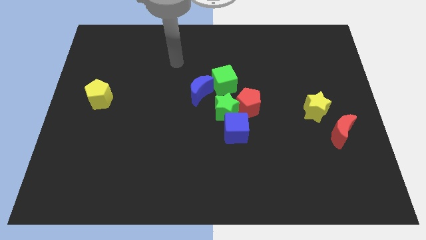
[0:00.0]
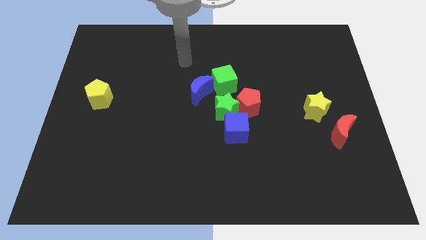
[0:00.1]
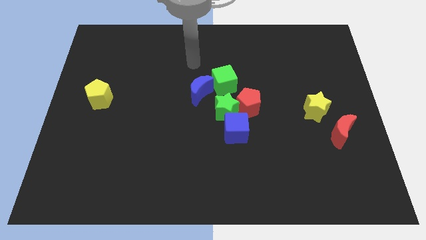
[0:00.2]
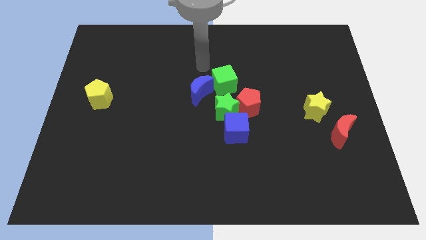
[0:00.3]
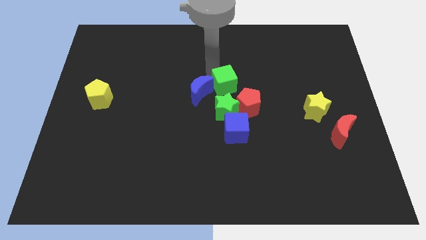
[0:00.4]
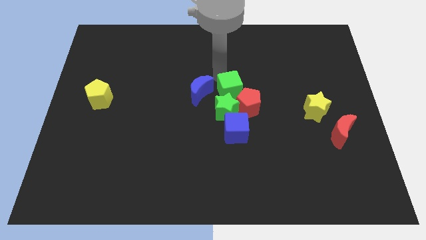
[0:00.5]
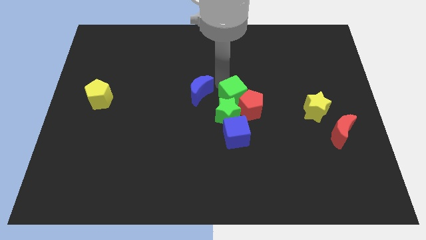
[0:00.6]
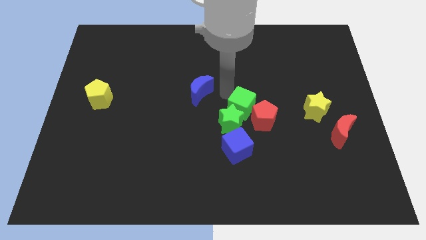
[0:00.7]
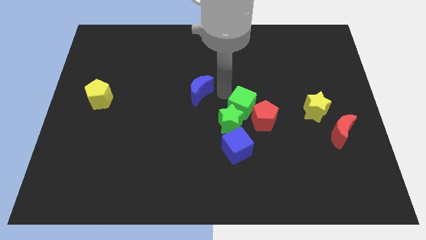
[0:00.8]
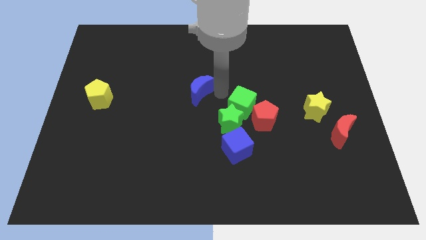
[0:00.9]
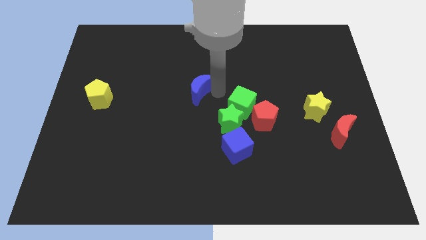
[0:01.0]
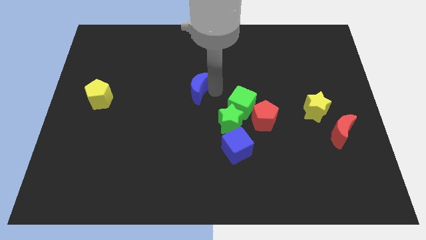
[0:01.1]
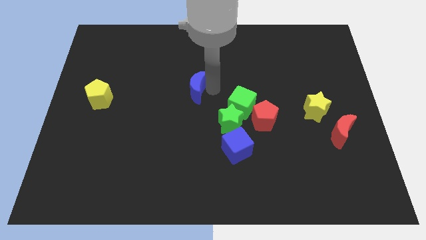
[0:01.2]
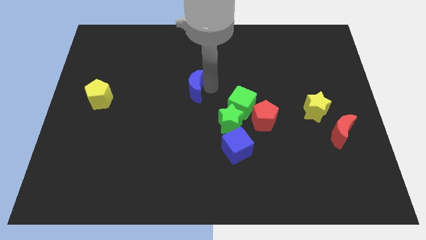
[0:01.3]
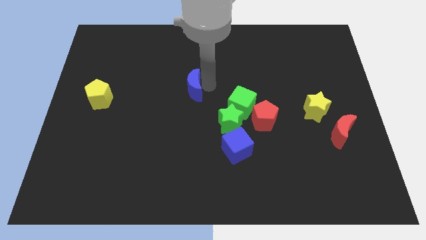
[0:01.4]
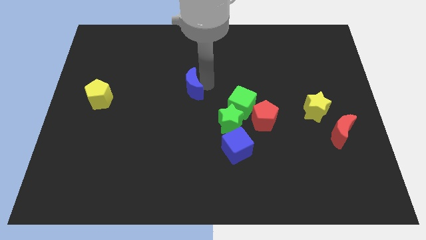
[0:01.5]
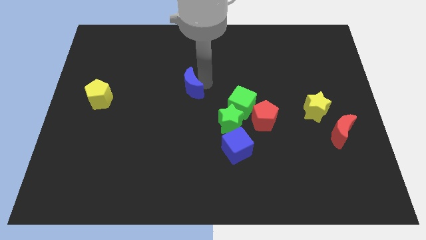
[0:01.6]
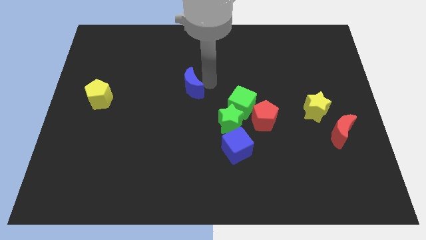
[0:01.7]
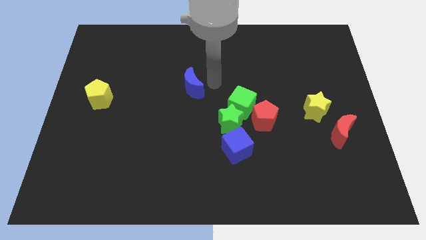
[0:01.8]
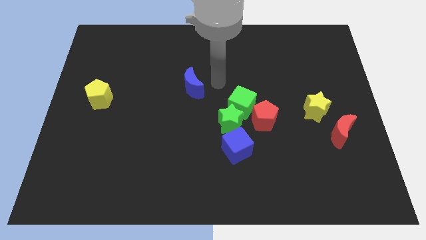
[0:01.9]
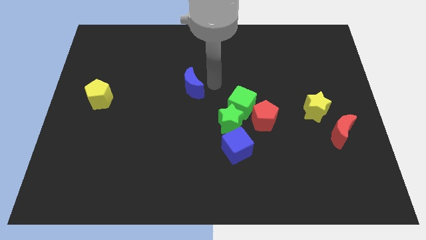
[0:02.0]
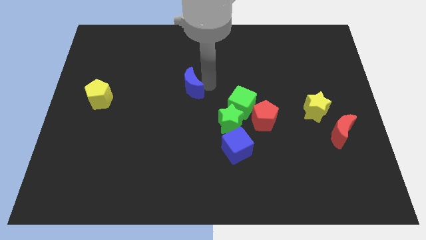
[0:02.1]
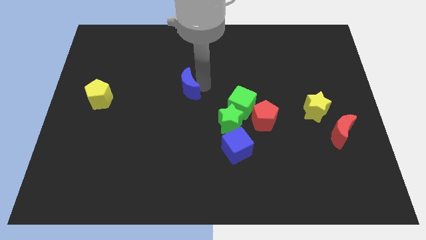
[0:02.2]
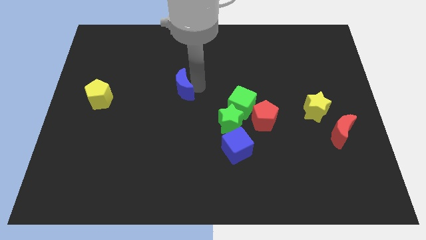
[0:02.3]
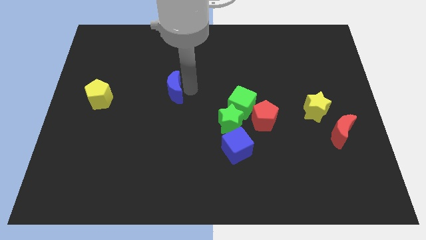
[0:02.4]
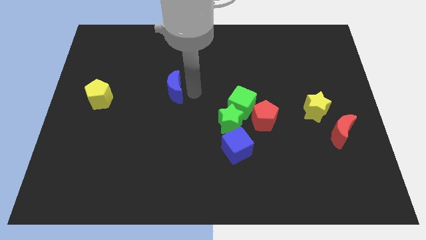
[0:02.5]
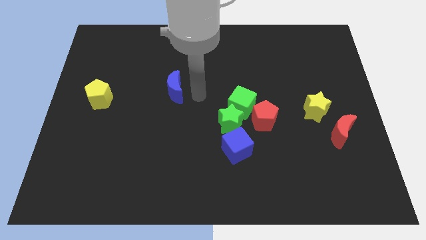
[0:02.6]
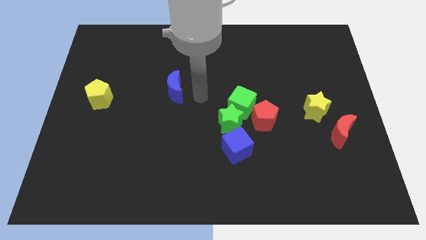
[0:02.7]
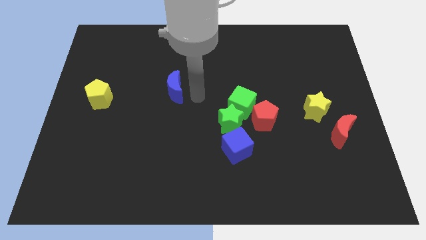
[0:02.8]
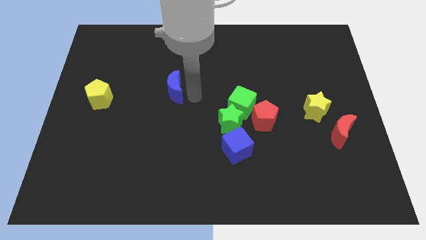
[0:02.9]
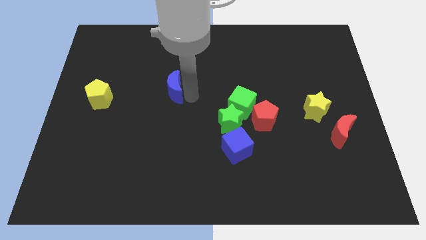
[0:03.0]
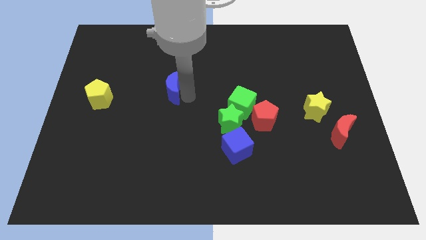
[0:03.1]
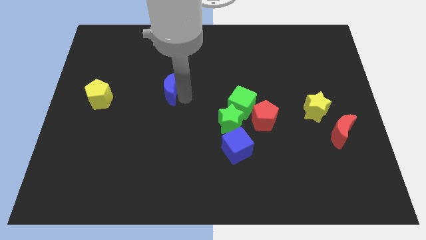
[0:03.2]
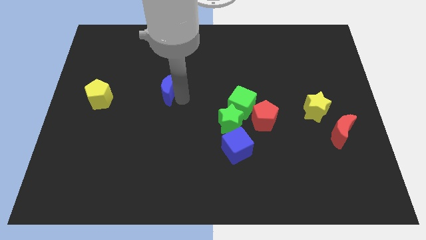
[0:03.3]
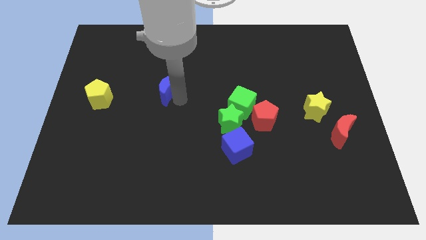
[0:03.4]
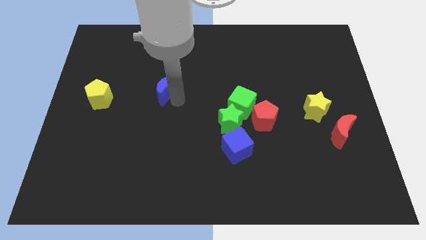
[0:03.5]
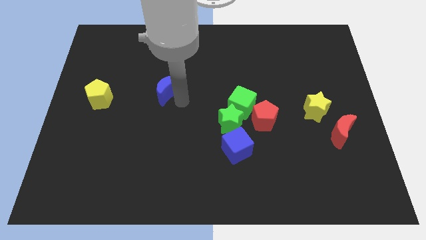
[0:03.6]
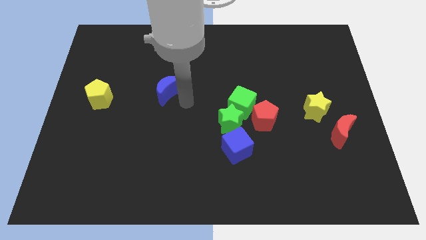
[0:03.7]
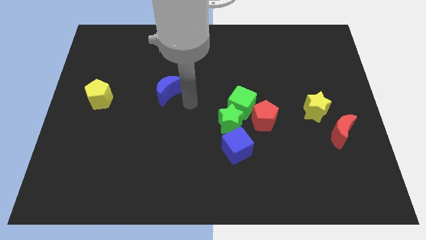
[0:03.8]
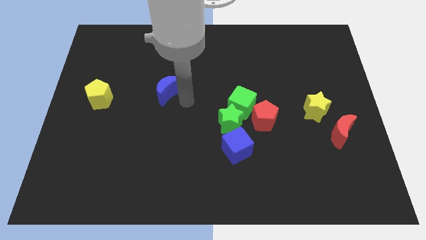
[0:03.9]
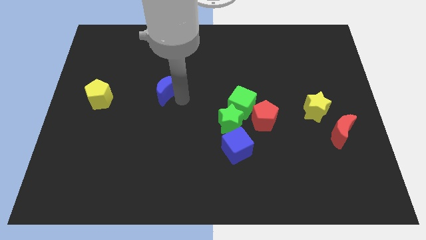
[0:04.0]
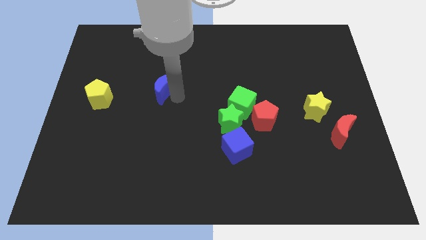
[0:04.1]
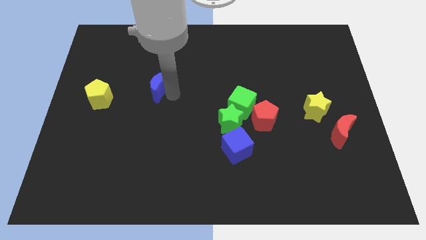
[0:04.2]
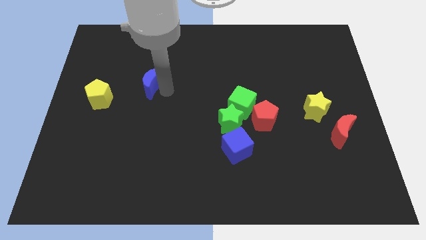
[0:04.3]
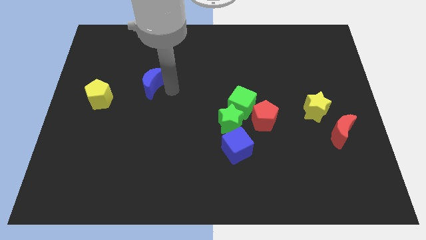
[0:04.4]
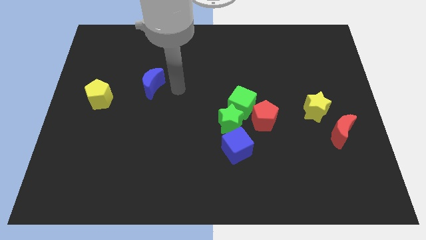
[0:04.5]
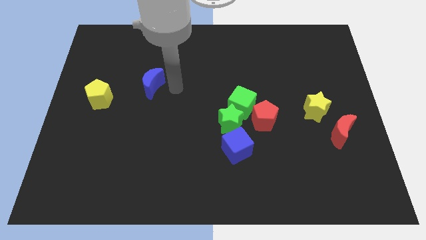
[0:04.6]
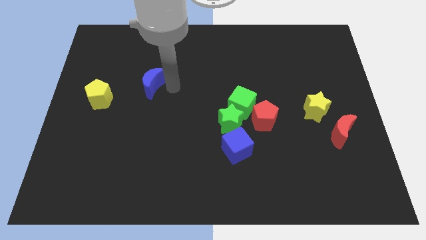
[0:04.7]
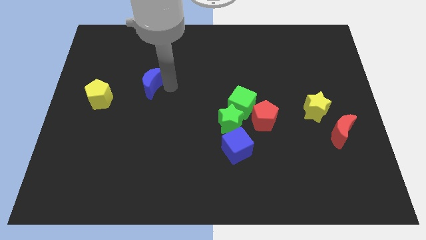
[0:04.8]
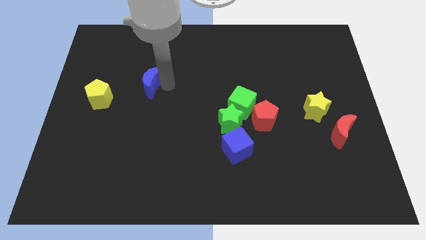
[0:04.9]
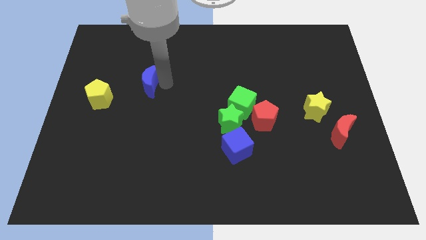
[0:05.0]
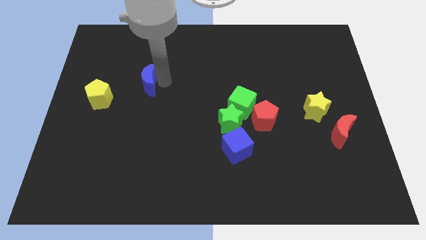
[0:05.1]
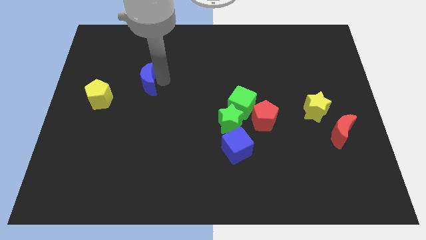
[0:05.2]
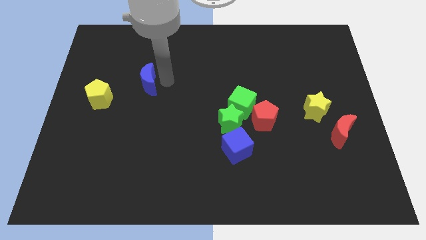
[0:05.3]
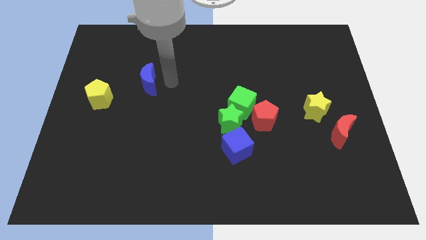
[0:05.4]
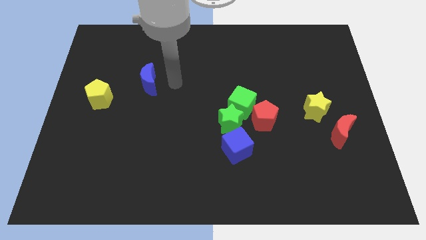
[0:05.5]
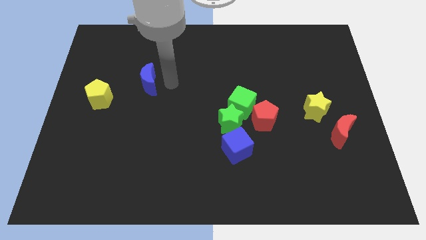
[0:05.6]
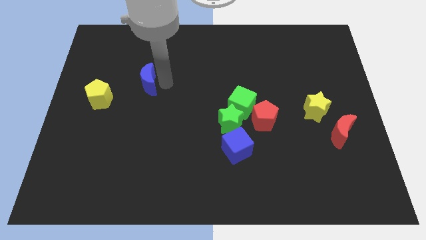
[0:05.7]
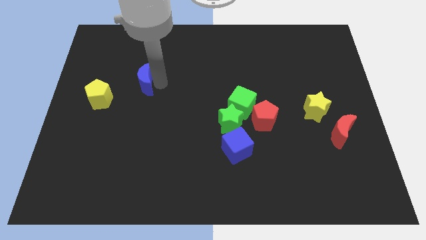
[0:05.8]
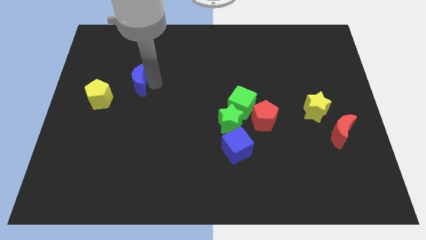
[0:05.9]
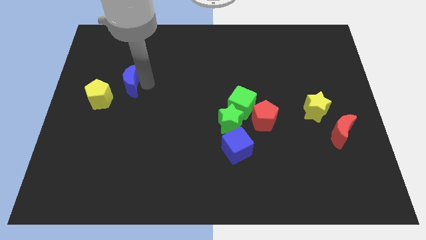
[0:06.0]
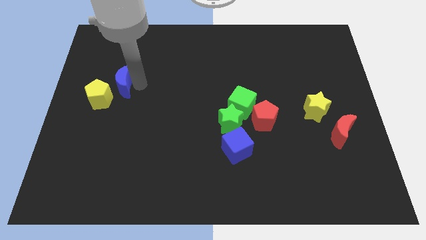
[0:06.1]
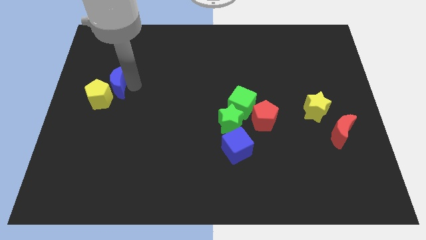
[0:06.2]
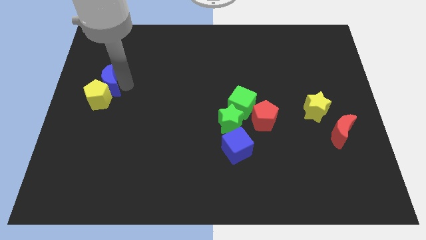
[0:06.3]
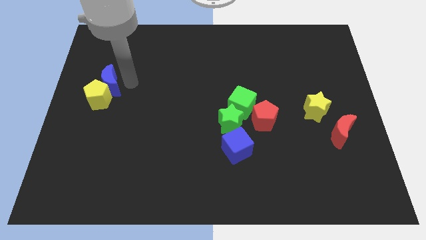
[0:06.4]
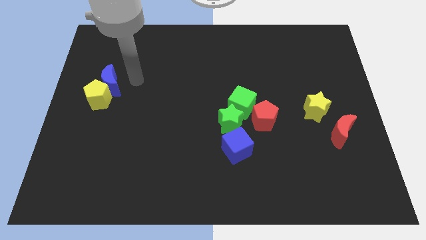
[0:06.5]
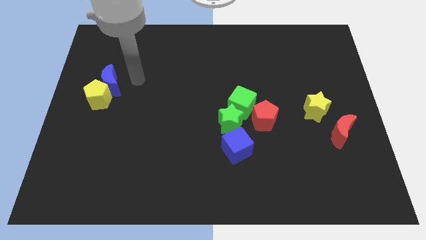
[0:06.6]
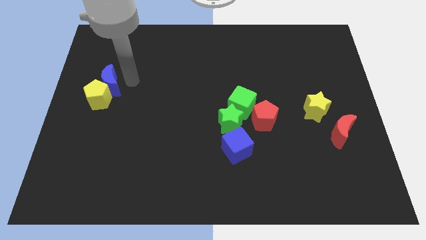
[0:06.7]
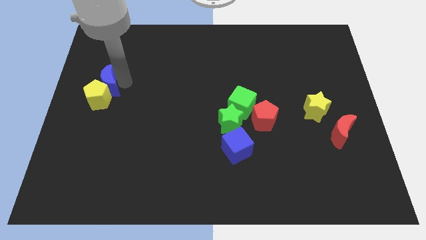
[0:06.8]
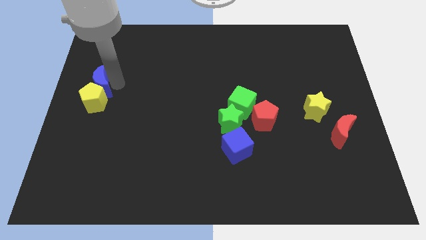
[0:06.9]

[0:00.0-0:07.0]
move the blue moon to the center left
